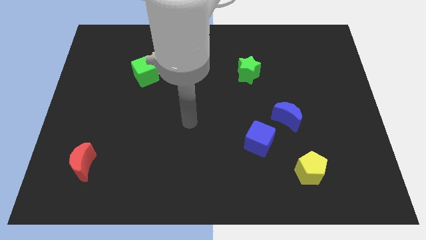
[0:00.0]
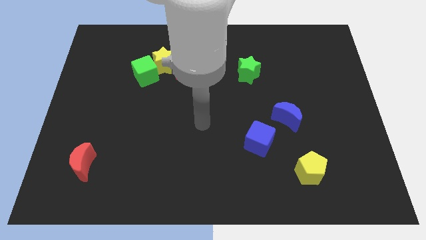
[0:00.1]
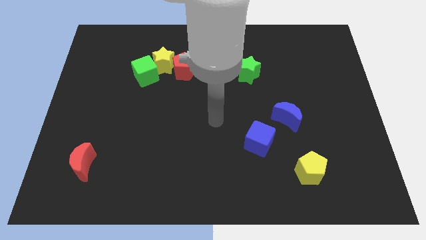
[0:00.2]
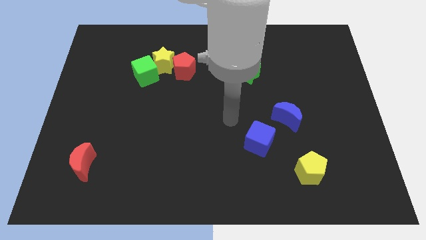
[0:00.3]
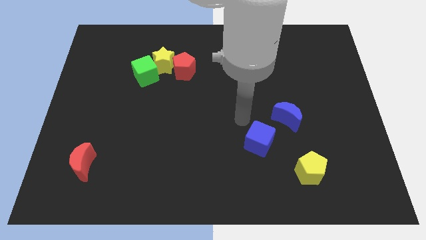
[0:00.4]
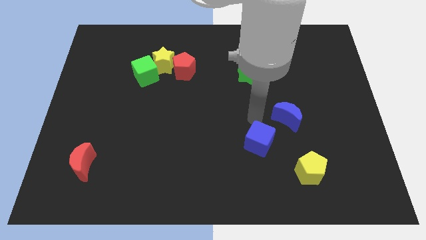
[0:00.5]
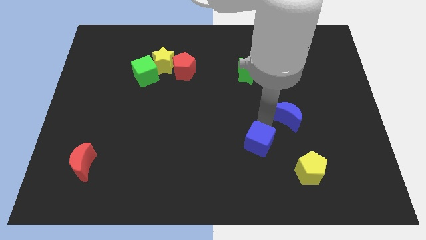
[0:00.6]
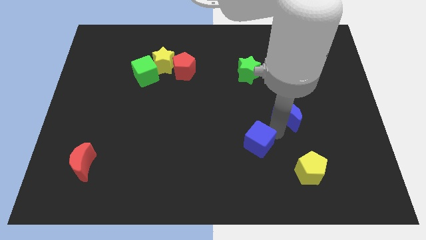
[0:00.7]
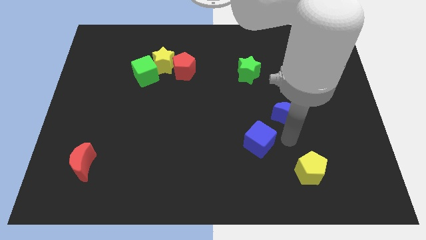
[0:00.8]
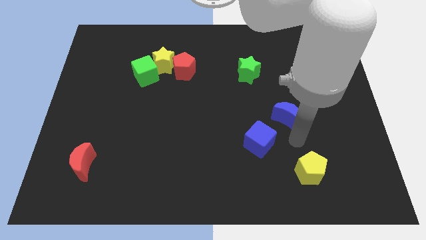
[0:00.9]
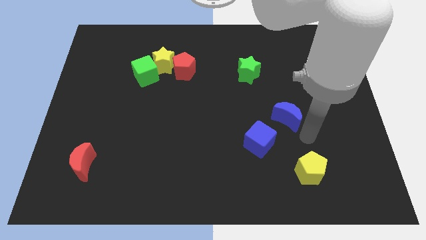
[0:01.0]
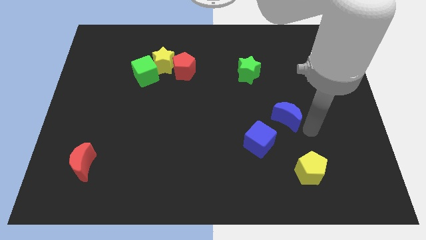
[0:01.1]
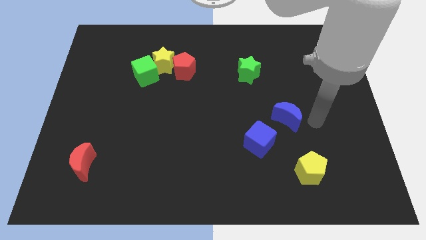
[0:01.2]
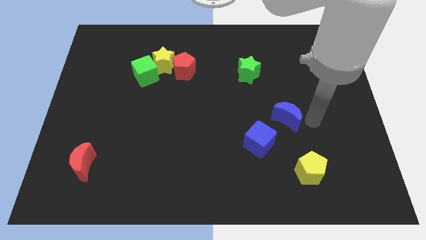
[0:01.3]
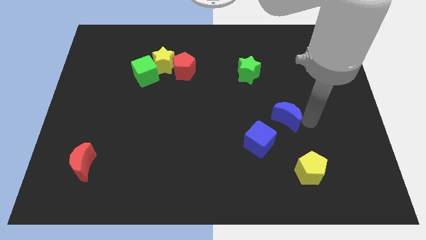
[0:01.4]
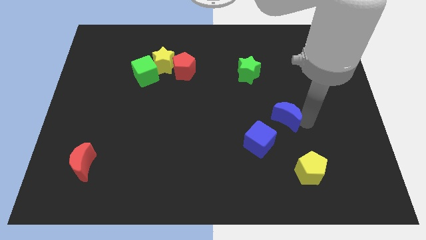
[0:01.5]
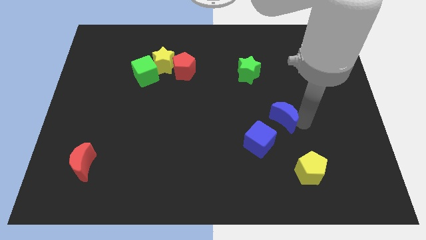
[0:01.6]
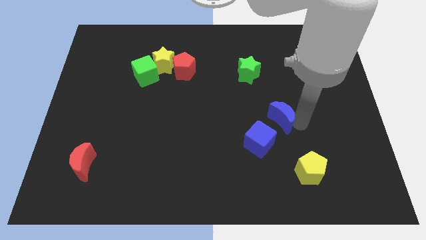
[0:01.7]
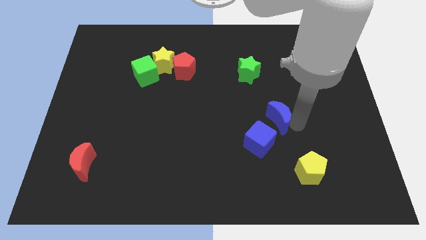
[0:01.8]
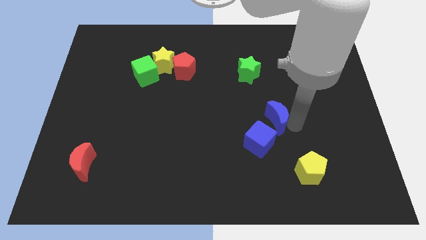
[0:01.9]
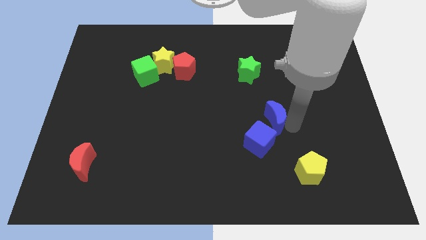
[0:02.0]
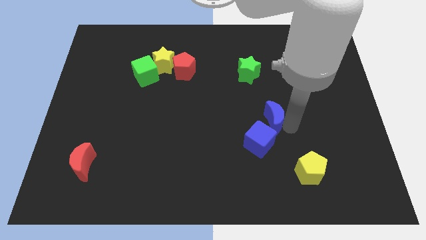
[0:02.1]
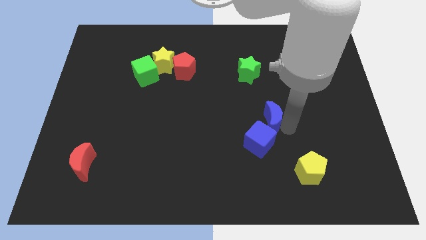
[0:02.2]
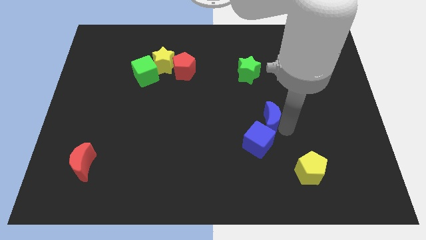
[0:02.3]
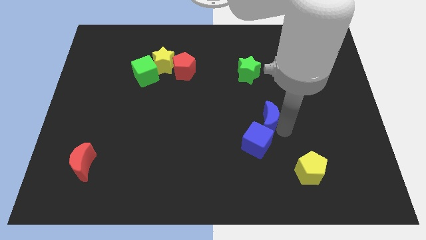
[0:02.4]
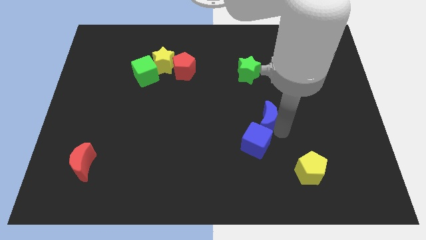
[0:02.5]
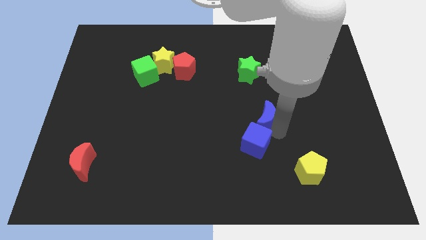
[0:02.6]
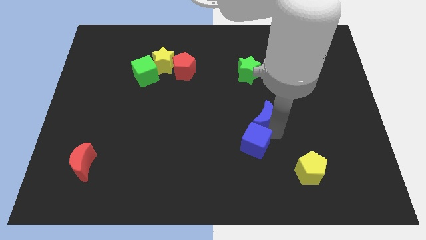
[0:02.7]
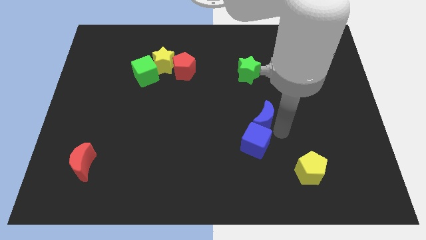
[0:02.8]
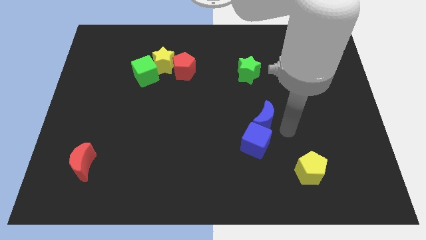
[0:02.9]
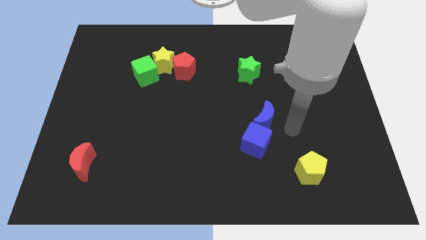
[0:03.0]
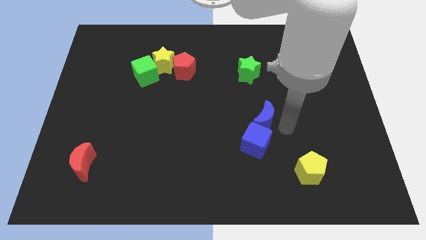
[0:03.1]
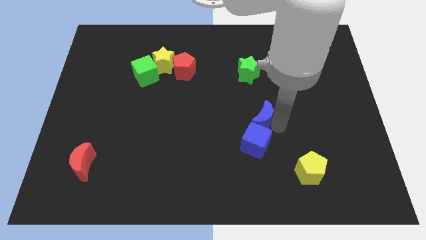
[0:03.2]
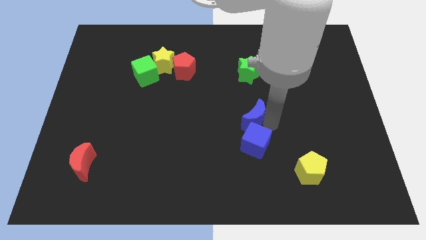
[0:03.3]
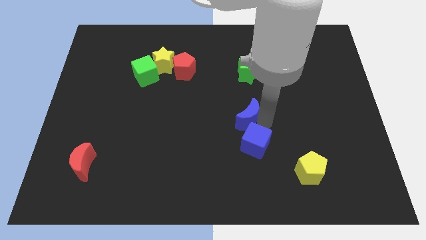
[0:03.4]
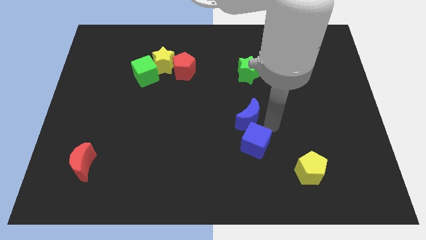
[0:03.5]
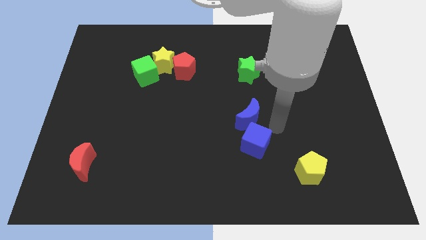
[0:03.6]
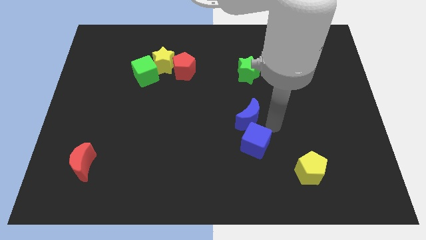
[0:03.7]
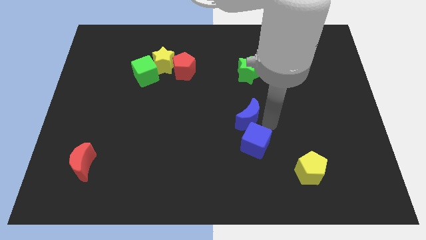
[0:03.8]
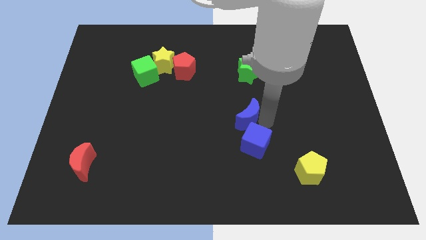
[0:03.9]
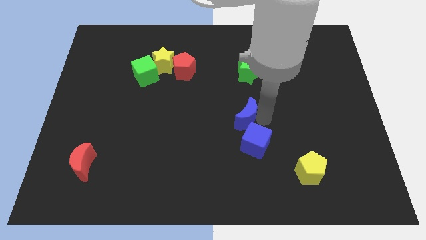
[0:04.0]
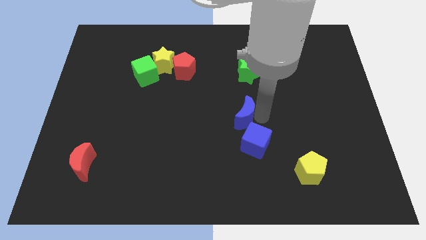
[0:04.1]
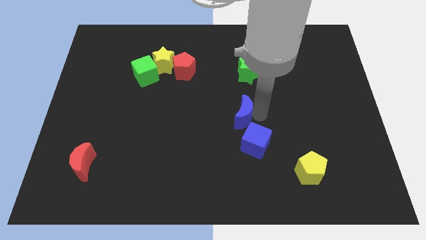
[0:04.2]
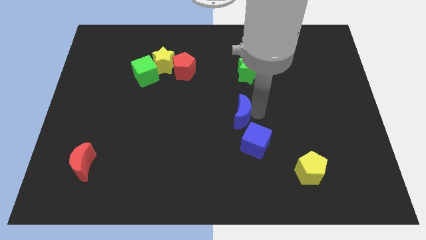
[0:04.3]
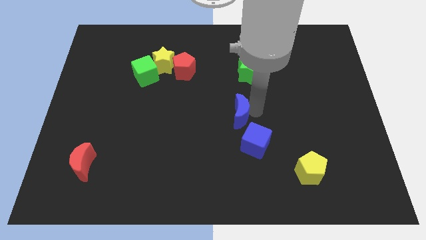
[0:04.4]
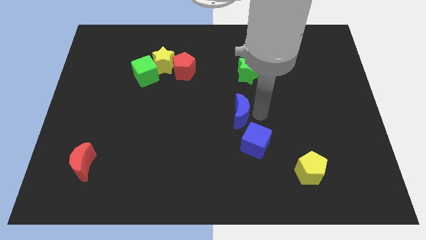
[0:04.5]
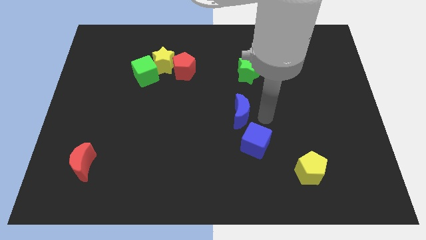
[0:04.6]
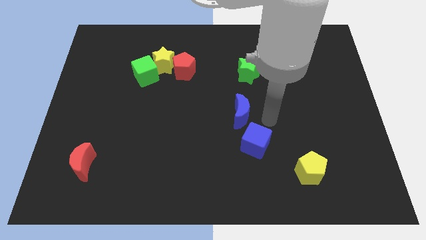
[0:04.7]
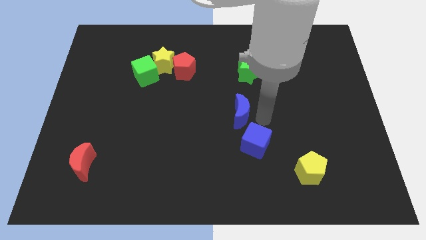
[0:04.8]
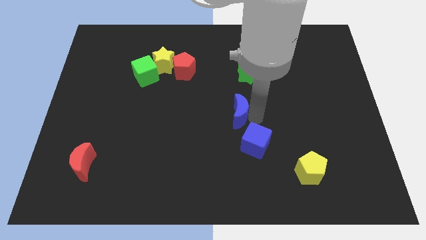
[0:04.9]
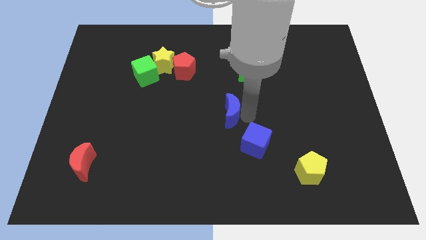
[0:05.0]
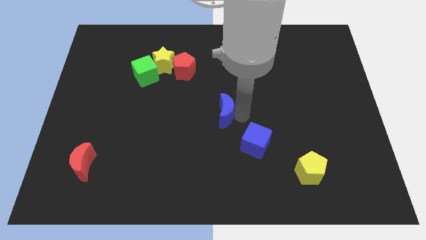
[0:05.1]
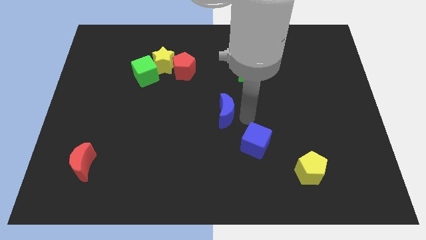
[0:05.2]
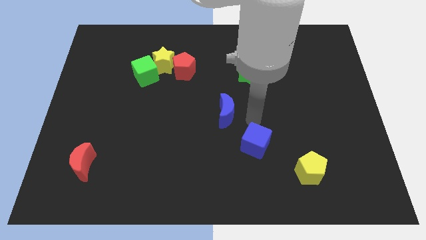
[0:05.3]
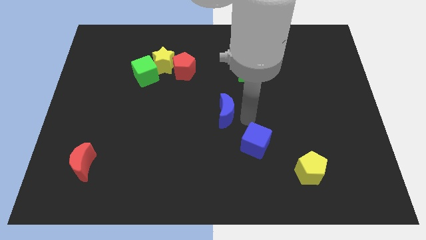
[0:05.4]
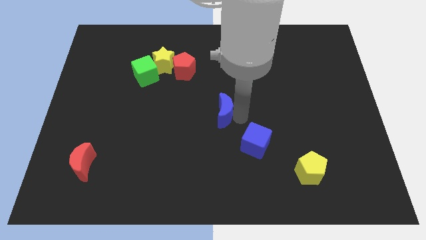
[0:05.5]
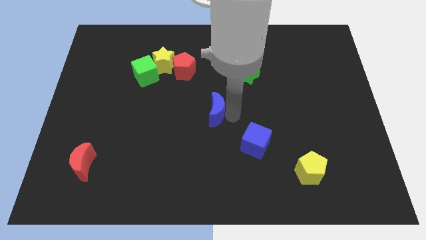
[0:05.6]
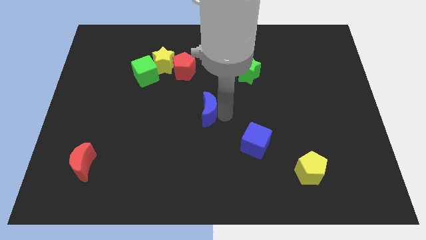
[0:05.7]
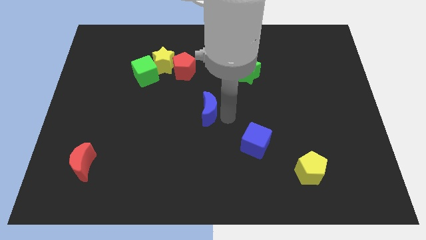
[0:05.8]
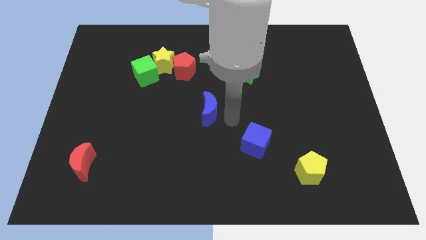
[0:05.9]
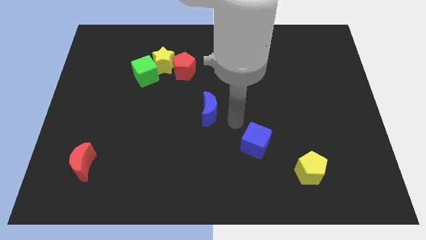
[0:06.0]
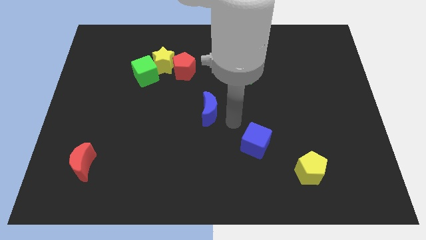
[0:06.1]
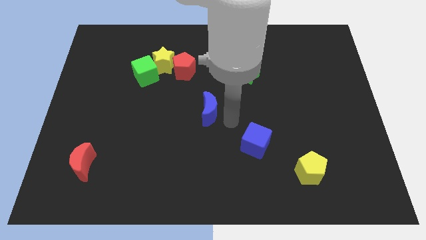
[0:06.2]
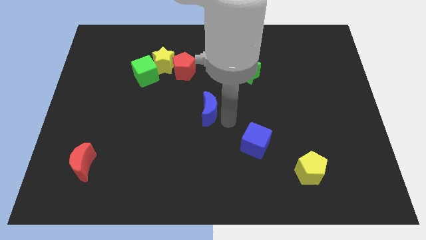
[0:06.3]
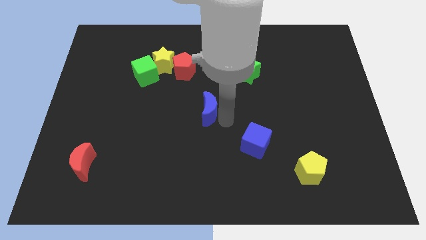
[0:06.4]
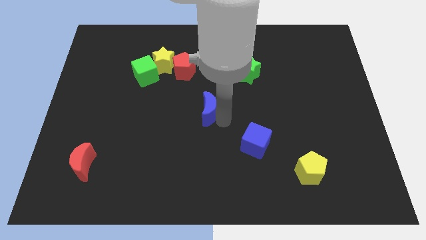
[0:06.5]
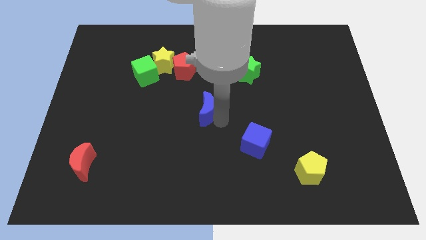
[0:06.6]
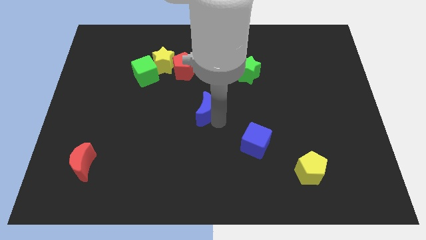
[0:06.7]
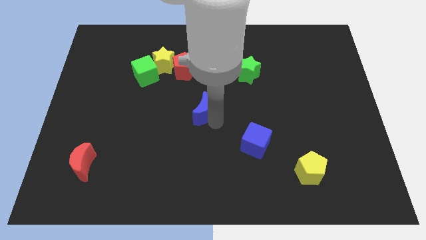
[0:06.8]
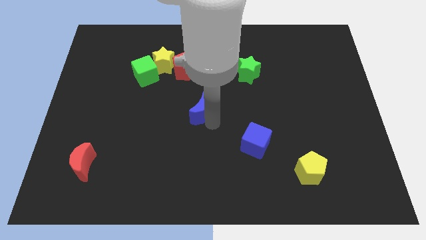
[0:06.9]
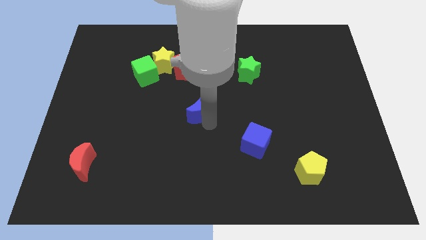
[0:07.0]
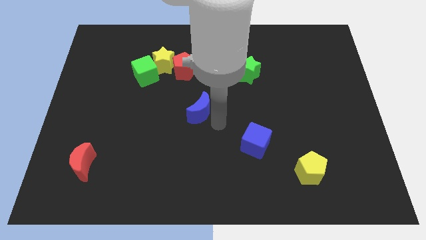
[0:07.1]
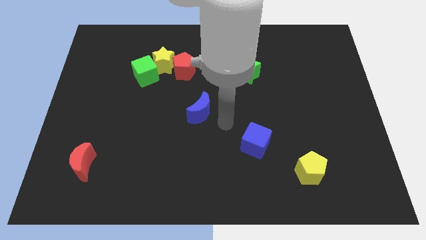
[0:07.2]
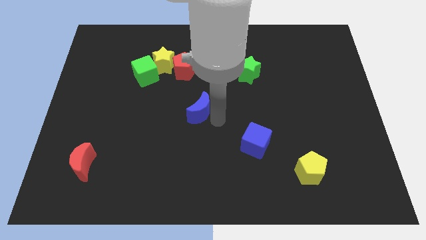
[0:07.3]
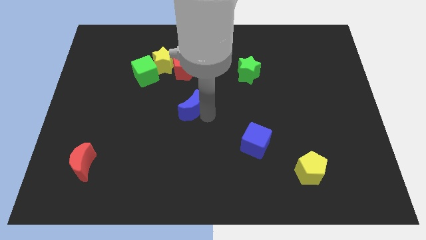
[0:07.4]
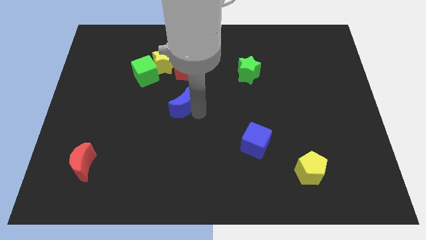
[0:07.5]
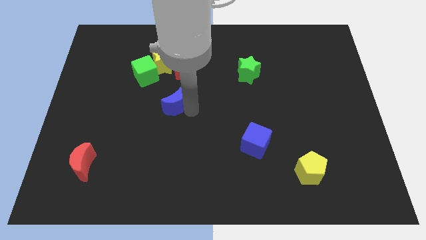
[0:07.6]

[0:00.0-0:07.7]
slide the blue moon to the bottom side of the yellow star
